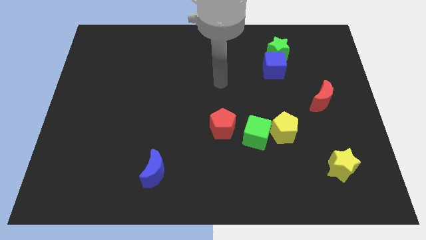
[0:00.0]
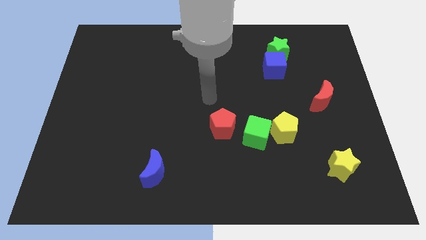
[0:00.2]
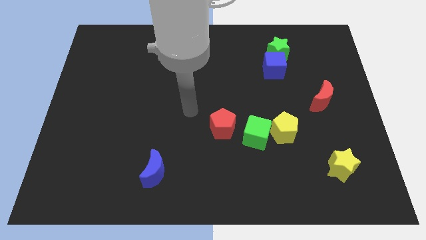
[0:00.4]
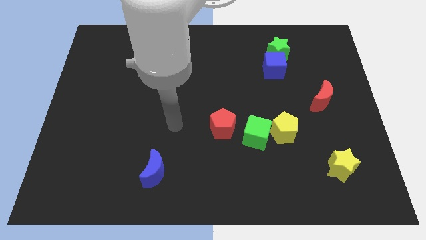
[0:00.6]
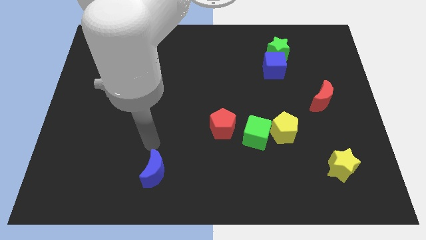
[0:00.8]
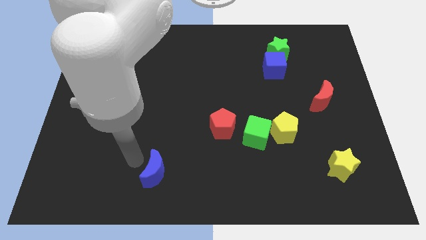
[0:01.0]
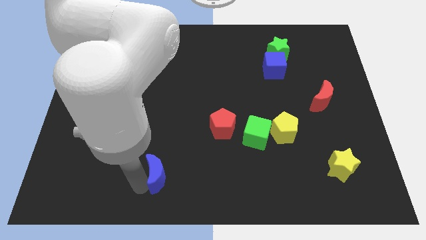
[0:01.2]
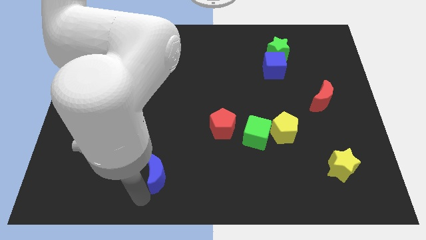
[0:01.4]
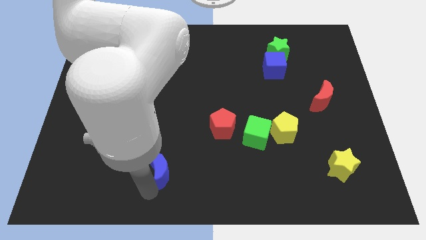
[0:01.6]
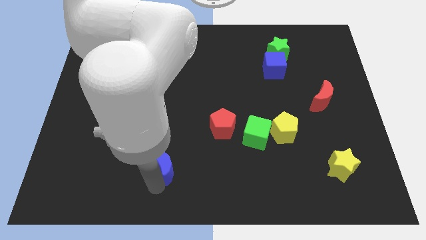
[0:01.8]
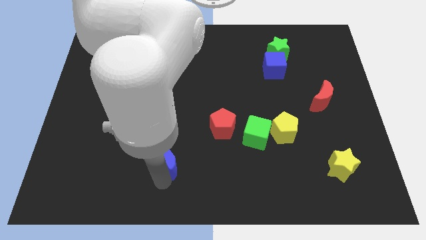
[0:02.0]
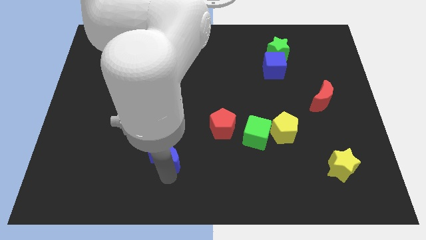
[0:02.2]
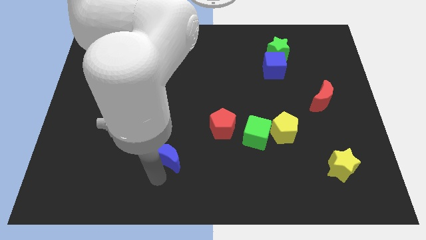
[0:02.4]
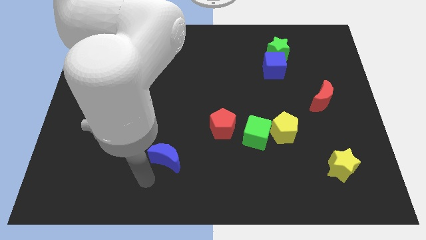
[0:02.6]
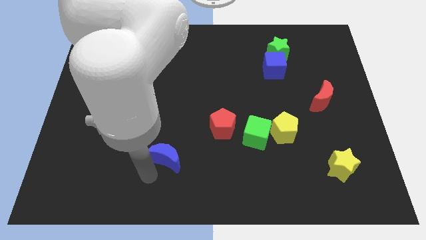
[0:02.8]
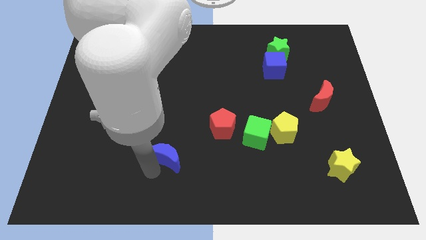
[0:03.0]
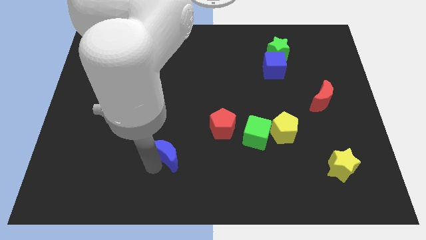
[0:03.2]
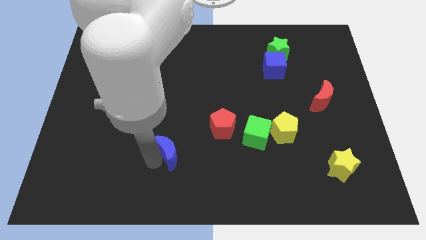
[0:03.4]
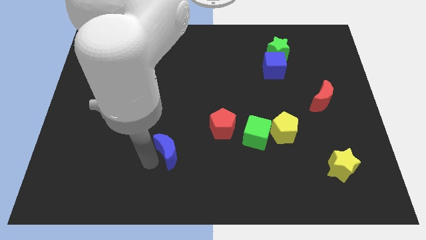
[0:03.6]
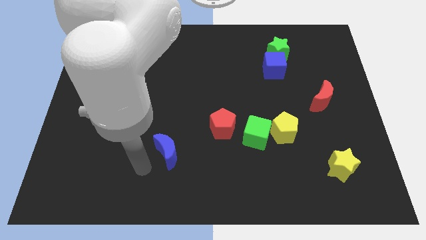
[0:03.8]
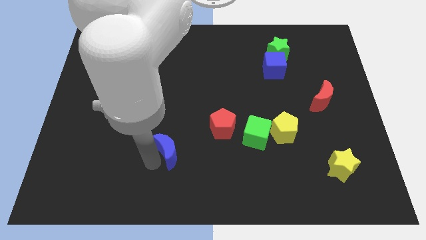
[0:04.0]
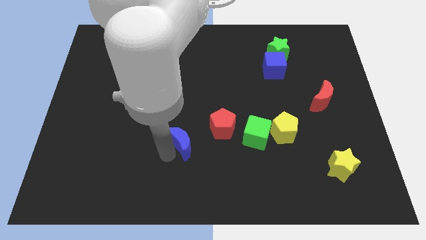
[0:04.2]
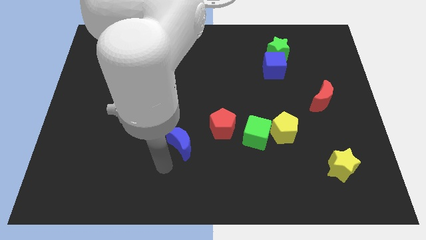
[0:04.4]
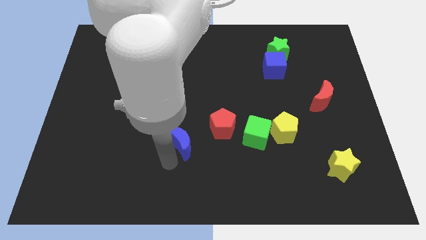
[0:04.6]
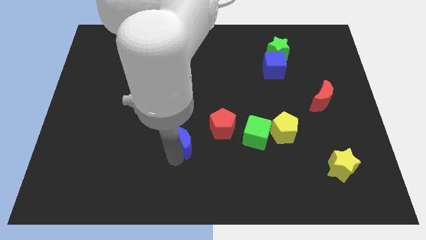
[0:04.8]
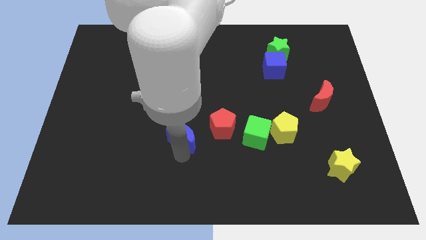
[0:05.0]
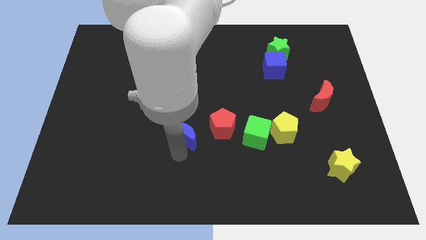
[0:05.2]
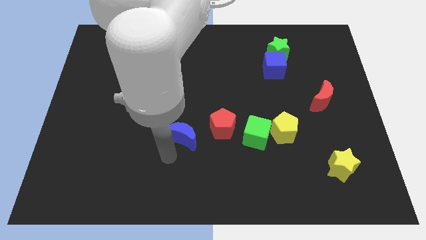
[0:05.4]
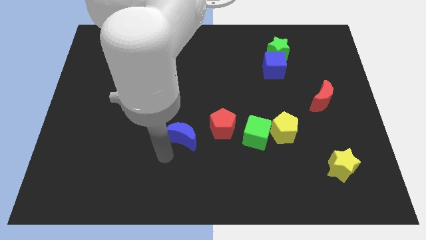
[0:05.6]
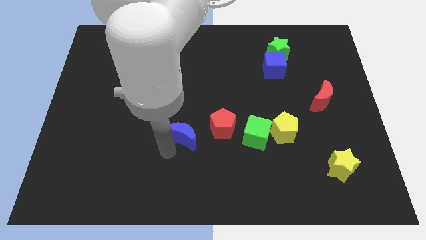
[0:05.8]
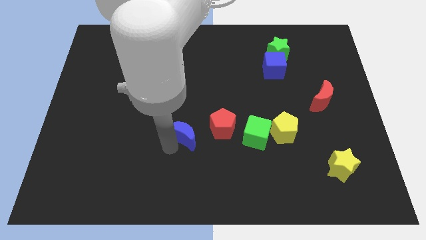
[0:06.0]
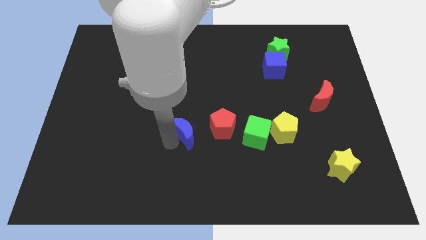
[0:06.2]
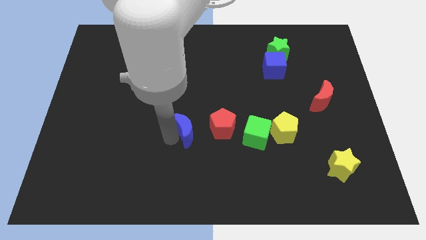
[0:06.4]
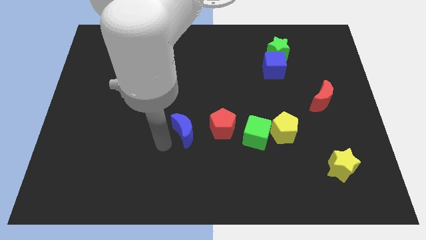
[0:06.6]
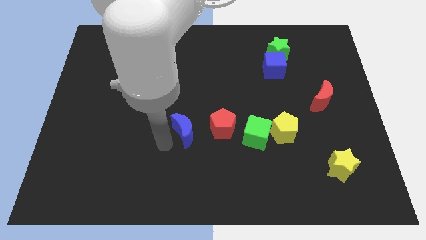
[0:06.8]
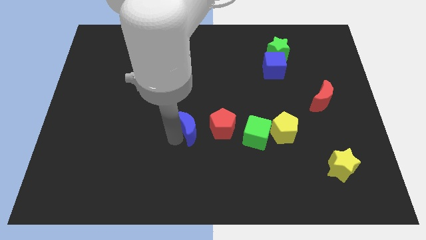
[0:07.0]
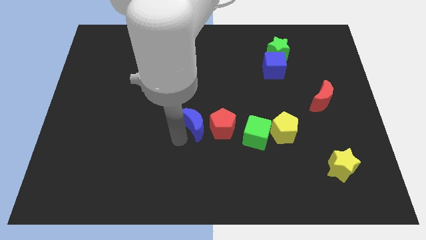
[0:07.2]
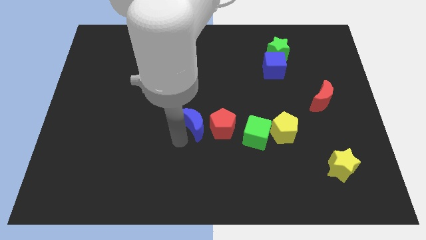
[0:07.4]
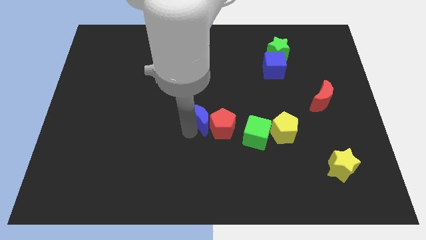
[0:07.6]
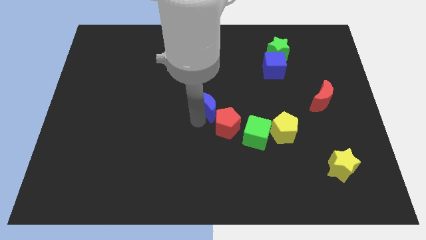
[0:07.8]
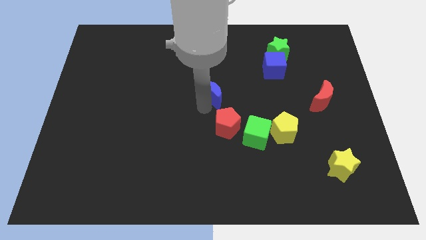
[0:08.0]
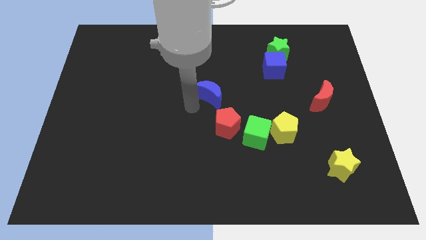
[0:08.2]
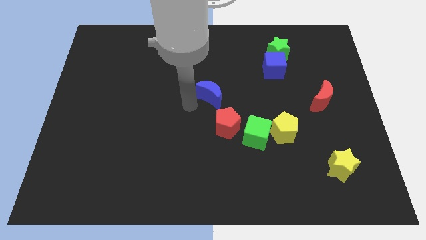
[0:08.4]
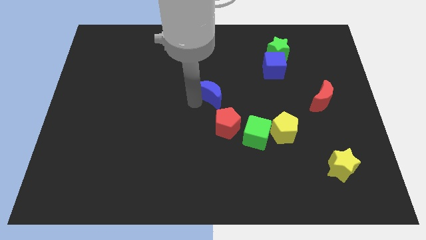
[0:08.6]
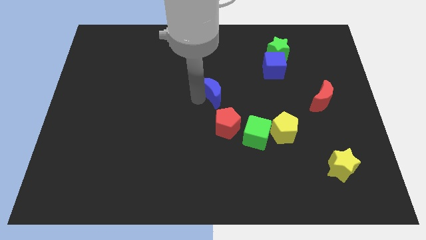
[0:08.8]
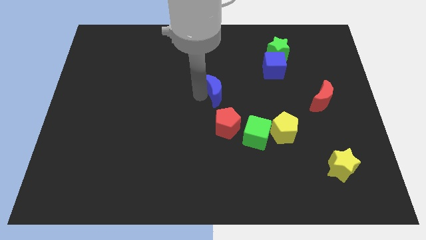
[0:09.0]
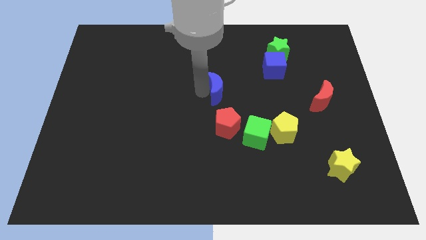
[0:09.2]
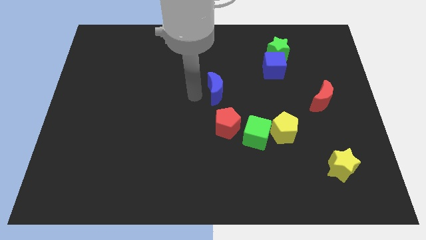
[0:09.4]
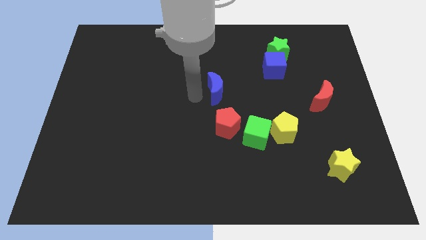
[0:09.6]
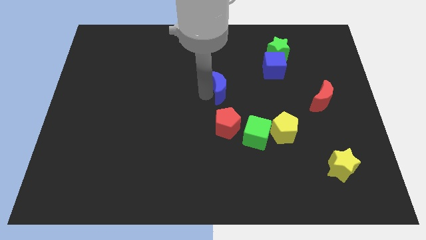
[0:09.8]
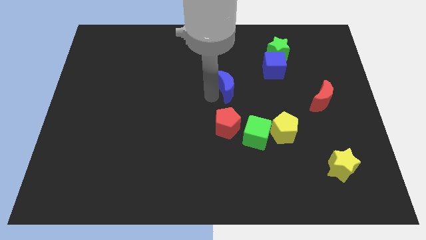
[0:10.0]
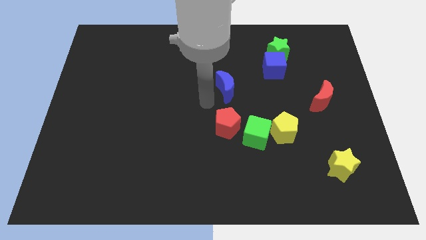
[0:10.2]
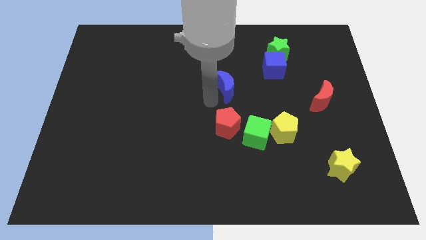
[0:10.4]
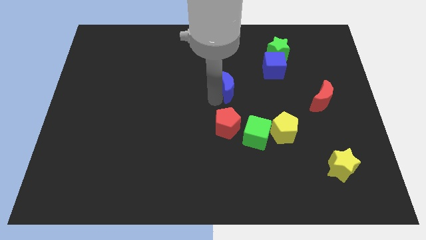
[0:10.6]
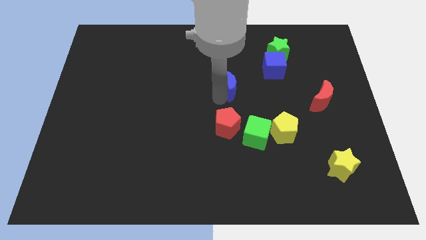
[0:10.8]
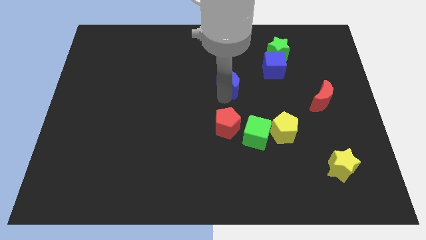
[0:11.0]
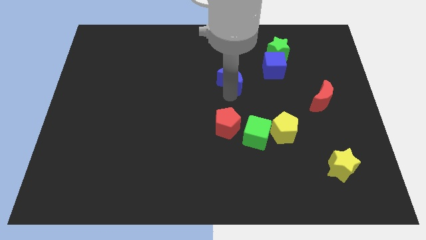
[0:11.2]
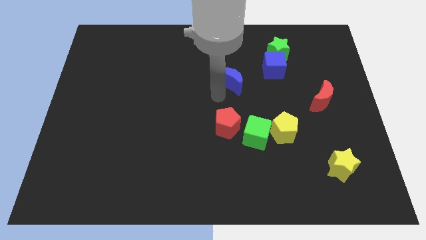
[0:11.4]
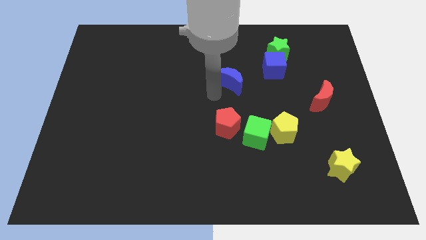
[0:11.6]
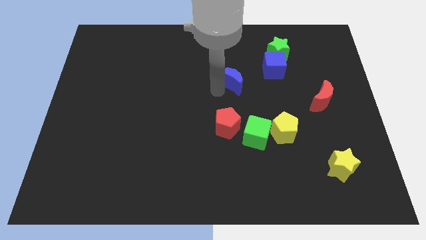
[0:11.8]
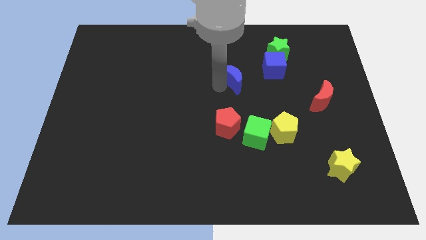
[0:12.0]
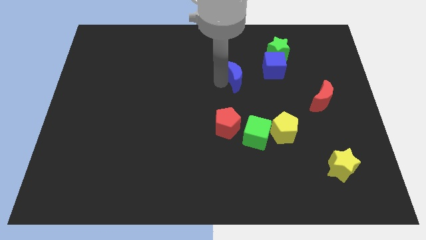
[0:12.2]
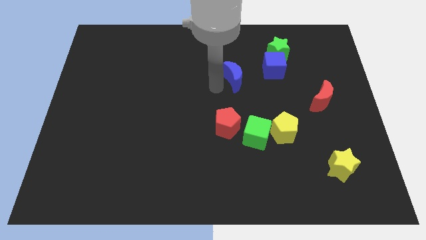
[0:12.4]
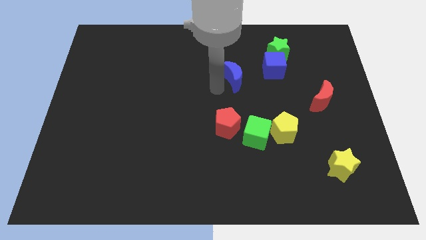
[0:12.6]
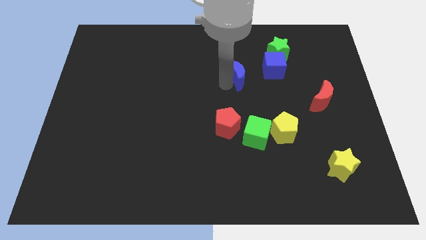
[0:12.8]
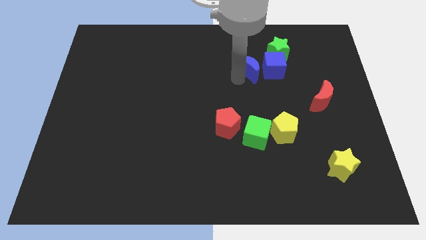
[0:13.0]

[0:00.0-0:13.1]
push the blue moon to the top left of the blue cube

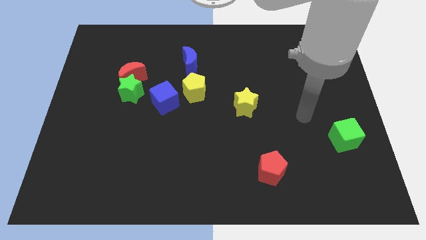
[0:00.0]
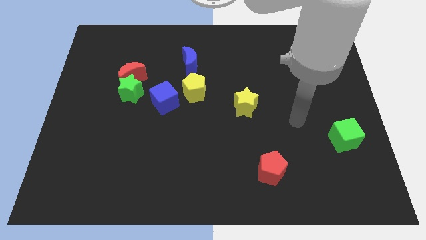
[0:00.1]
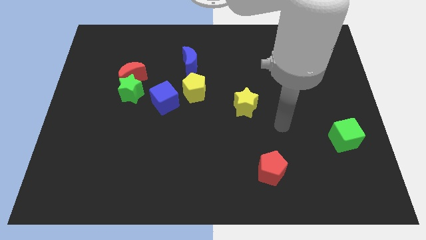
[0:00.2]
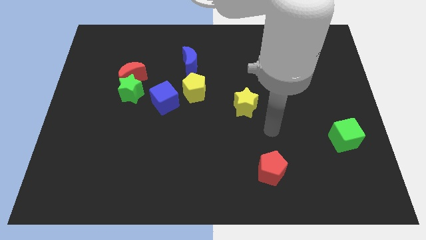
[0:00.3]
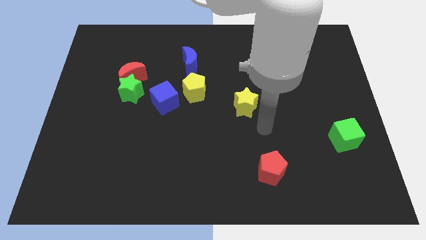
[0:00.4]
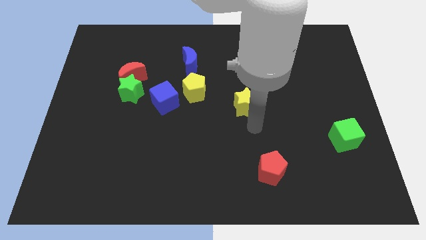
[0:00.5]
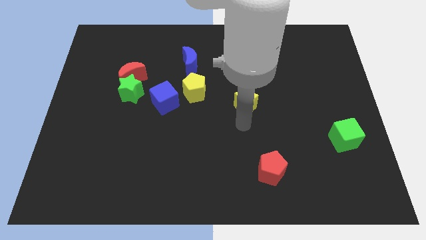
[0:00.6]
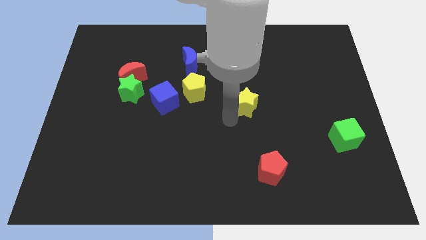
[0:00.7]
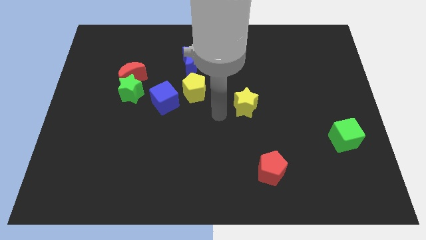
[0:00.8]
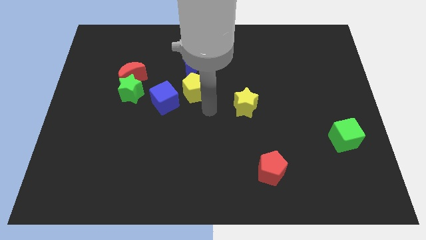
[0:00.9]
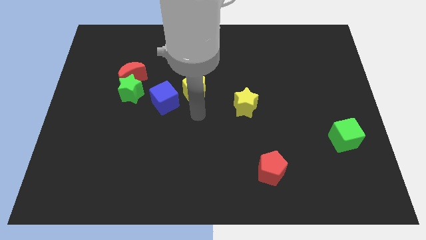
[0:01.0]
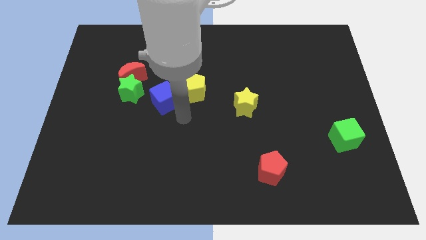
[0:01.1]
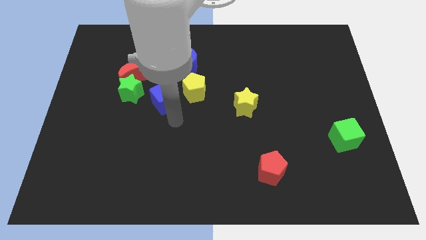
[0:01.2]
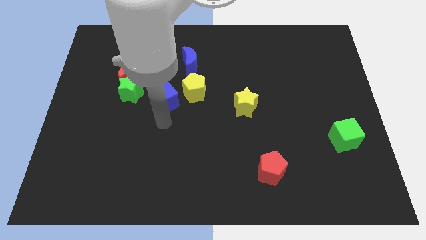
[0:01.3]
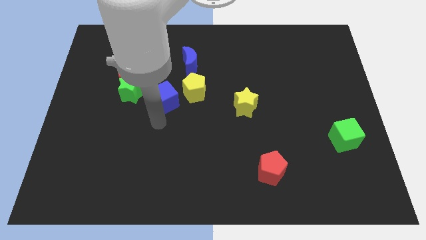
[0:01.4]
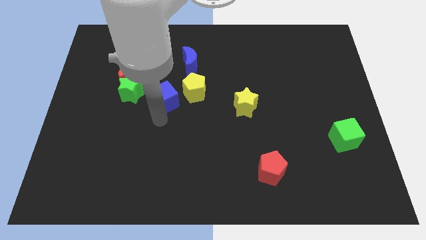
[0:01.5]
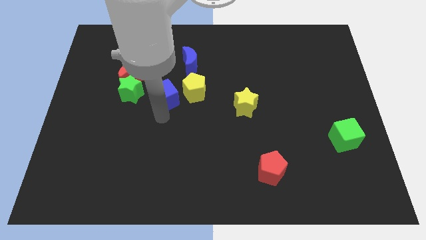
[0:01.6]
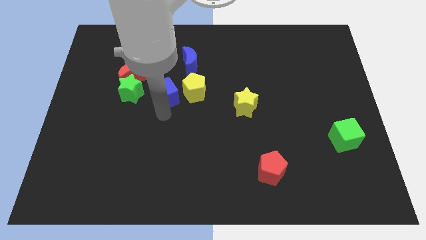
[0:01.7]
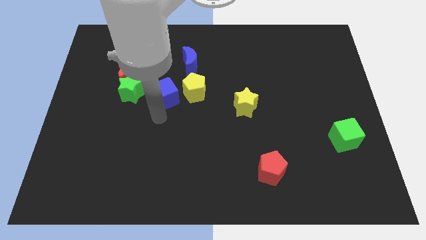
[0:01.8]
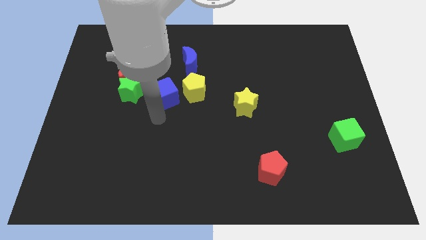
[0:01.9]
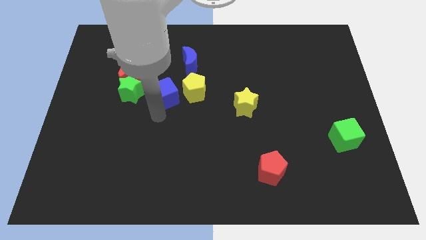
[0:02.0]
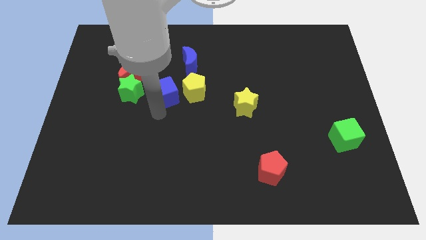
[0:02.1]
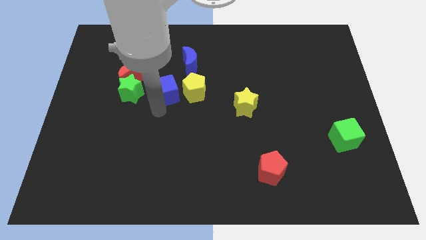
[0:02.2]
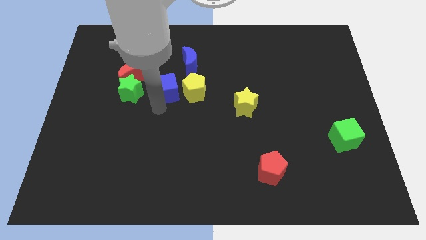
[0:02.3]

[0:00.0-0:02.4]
slide the blue cube to the right side of the red moon
